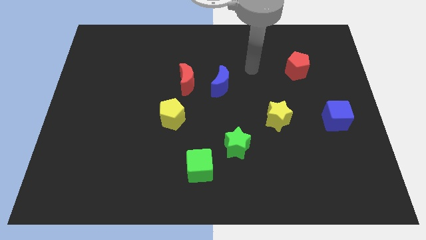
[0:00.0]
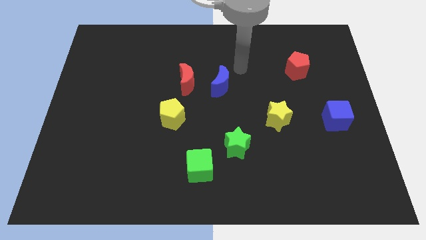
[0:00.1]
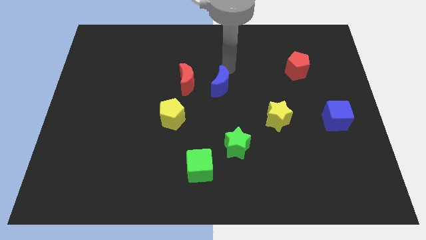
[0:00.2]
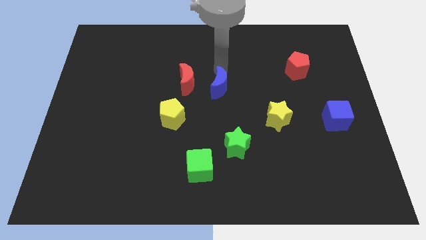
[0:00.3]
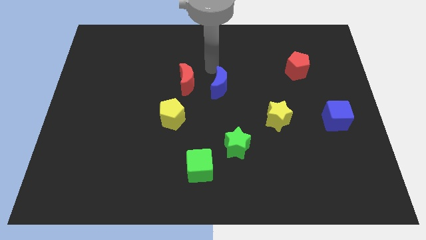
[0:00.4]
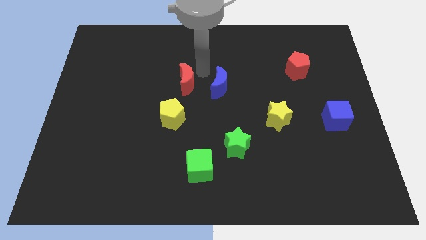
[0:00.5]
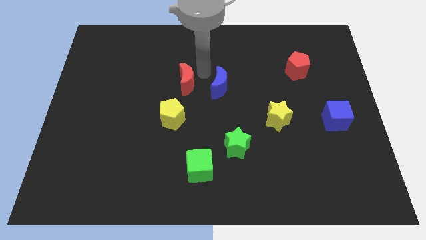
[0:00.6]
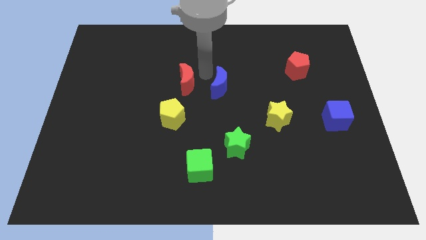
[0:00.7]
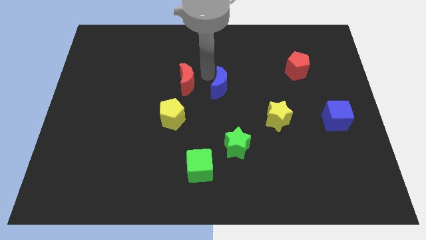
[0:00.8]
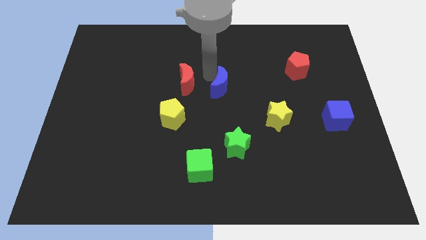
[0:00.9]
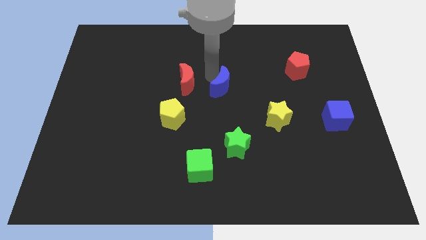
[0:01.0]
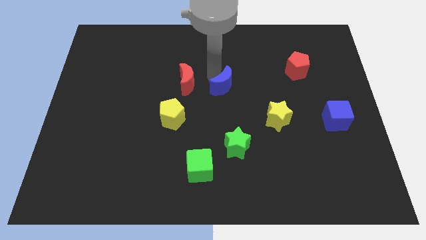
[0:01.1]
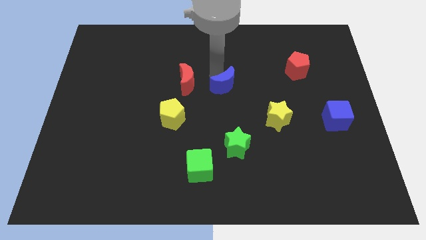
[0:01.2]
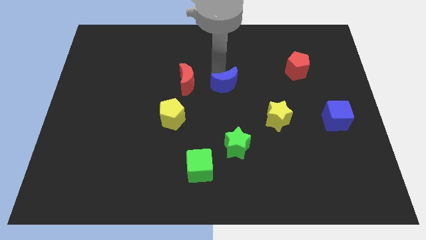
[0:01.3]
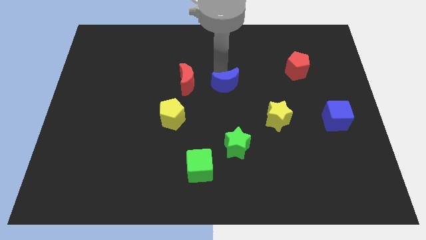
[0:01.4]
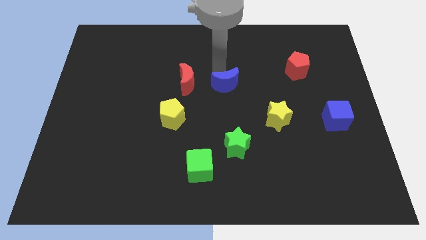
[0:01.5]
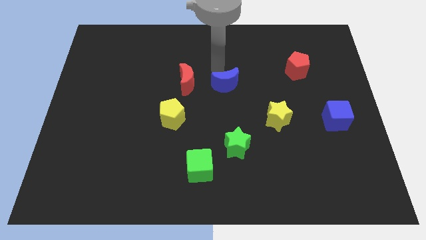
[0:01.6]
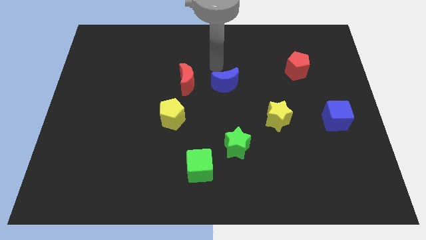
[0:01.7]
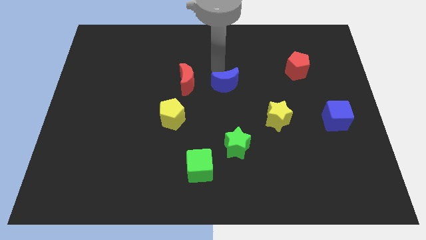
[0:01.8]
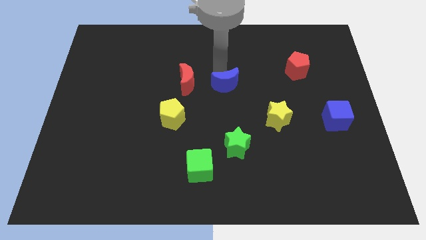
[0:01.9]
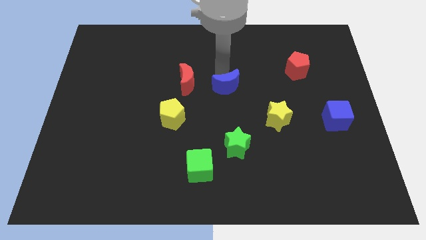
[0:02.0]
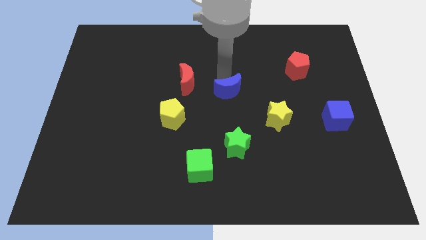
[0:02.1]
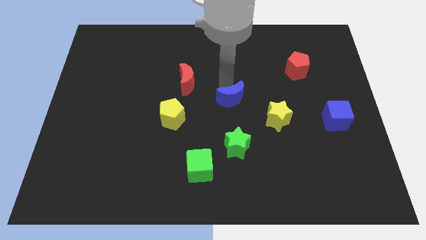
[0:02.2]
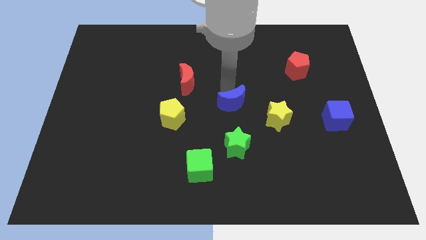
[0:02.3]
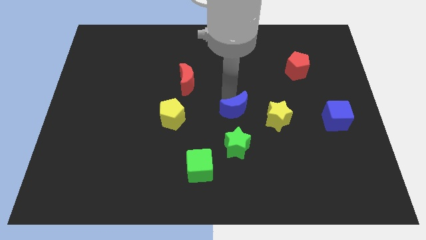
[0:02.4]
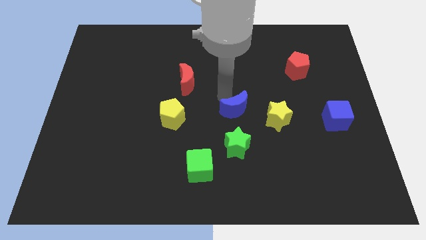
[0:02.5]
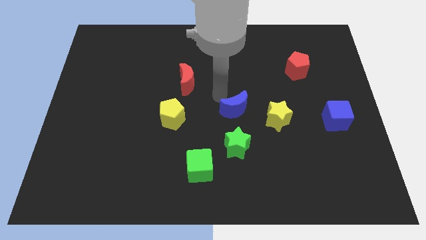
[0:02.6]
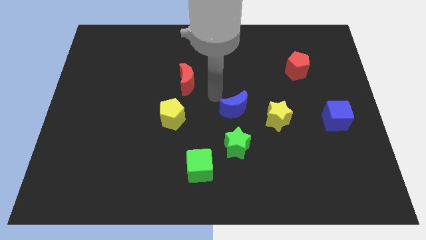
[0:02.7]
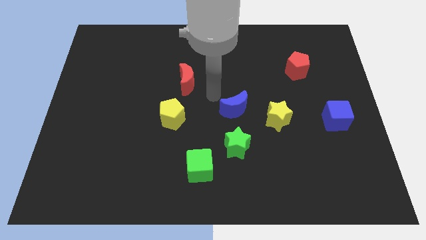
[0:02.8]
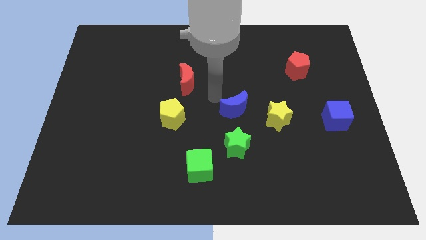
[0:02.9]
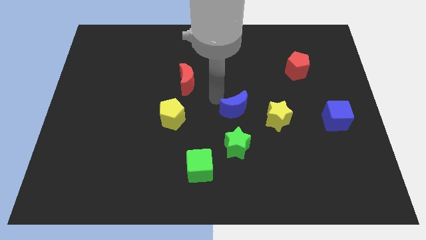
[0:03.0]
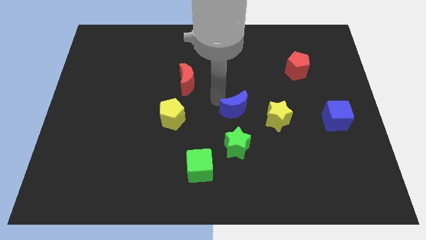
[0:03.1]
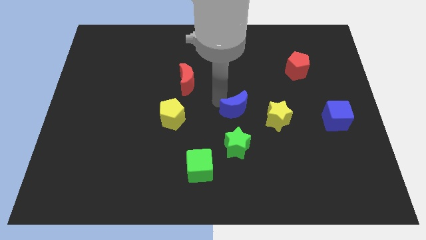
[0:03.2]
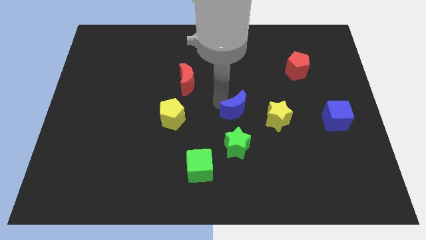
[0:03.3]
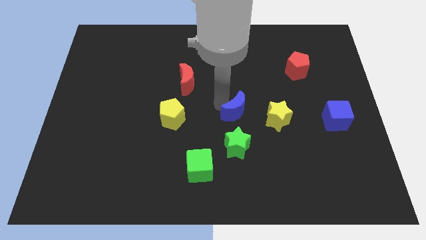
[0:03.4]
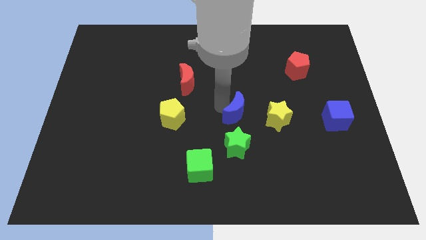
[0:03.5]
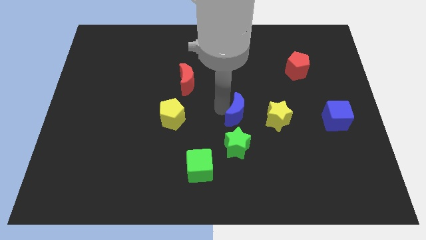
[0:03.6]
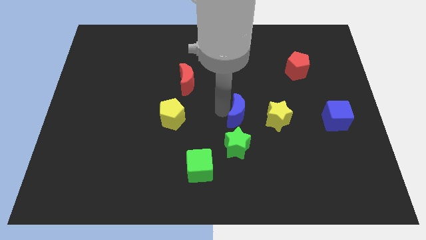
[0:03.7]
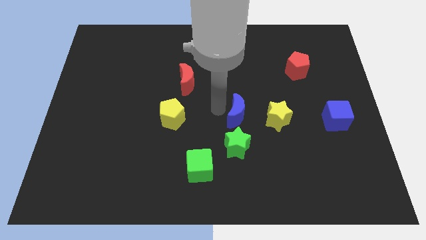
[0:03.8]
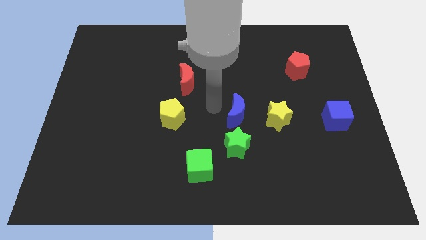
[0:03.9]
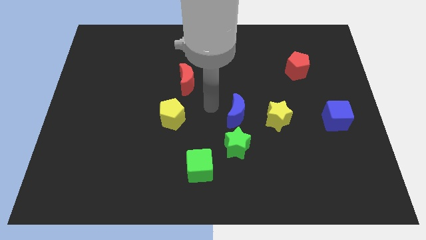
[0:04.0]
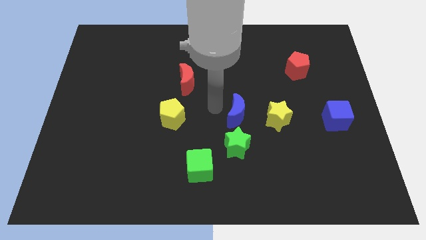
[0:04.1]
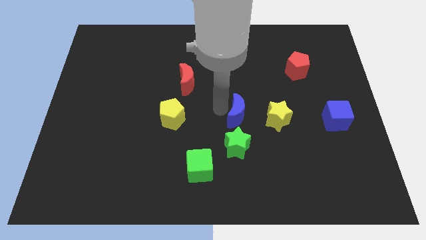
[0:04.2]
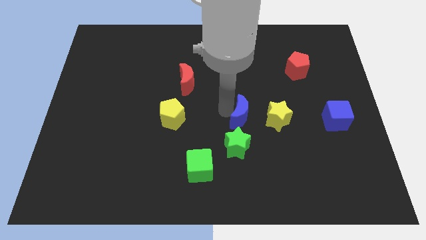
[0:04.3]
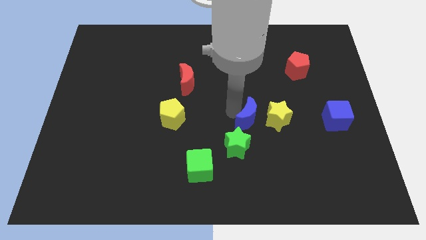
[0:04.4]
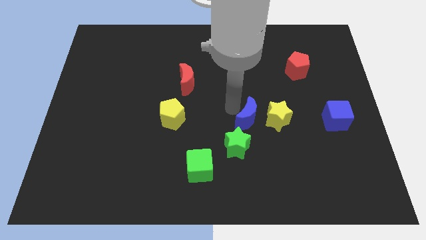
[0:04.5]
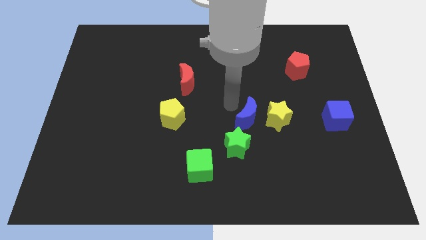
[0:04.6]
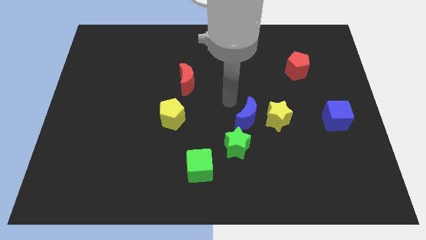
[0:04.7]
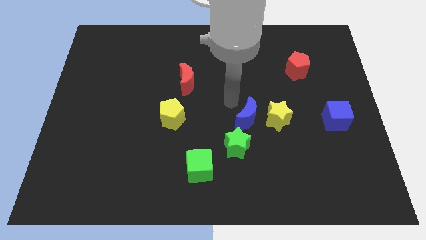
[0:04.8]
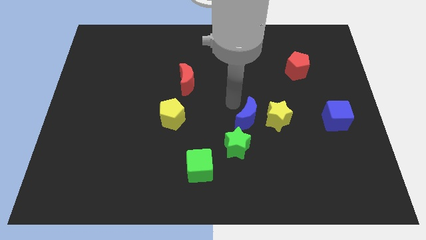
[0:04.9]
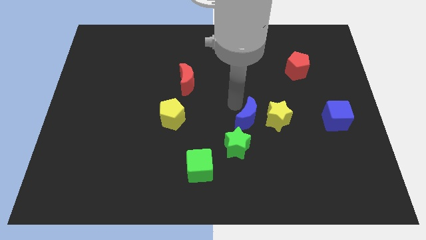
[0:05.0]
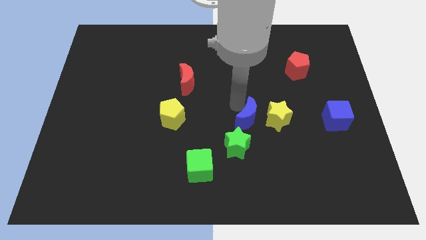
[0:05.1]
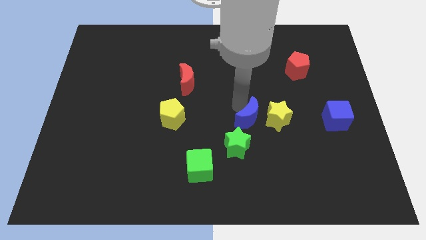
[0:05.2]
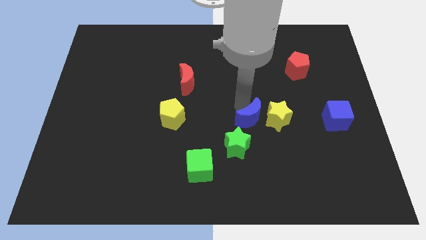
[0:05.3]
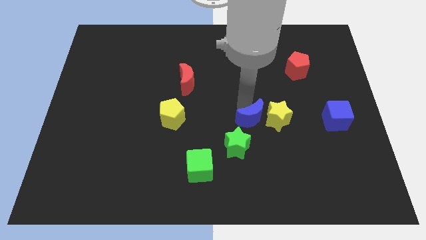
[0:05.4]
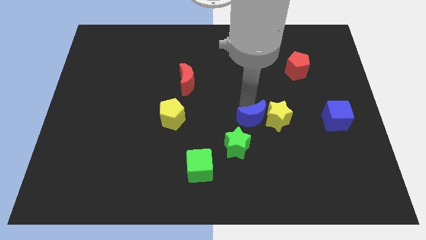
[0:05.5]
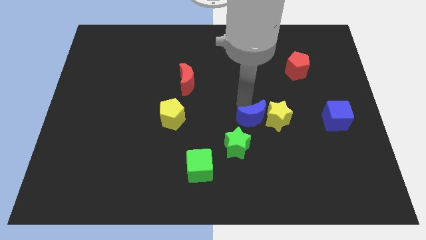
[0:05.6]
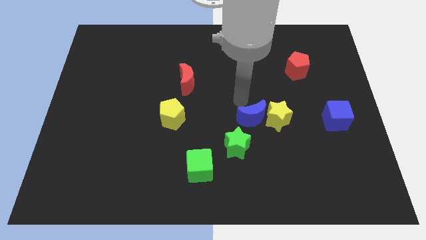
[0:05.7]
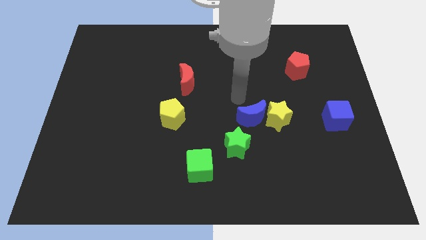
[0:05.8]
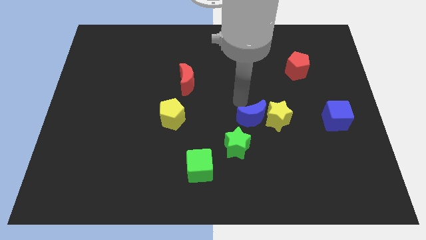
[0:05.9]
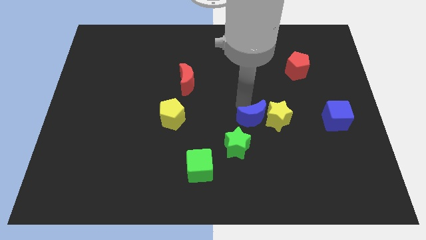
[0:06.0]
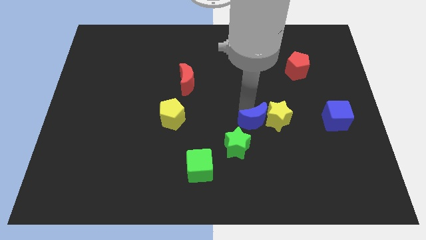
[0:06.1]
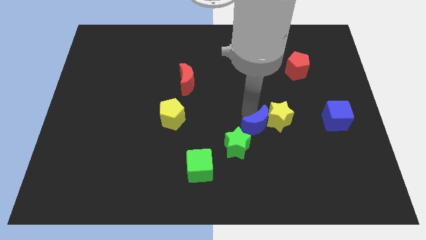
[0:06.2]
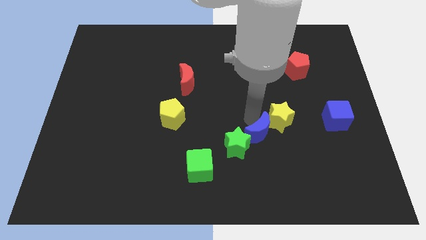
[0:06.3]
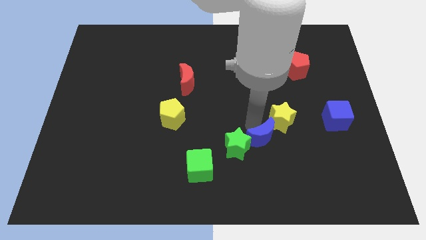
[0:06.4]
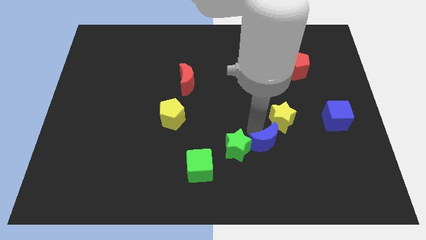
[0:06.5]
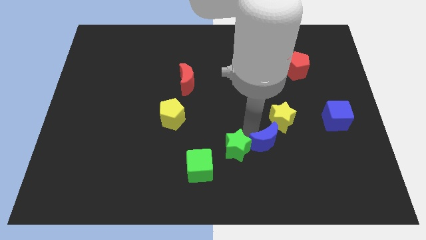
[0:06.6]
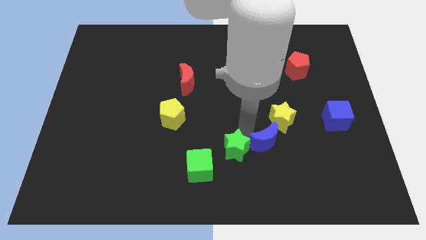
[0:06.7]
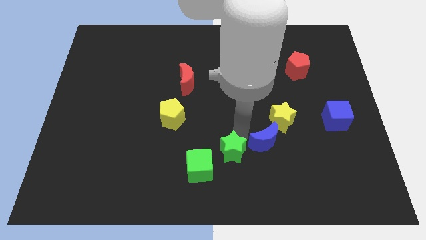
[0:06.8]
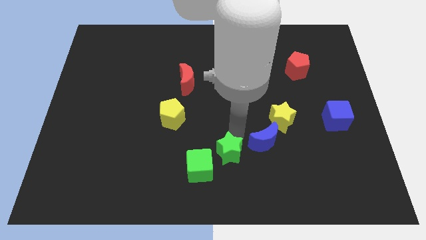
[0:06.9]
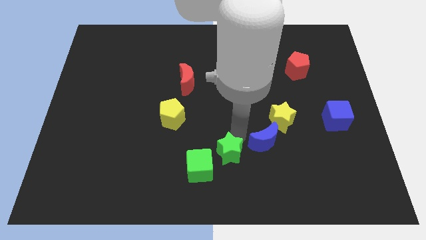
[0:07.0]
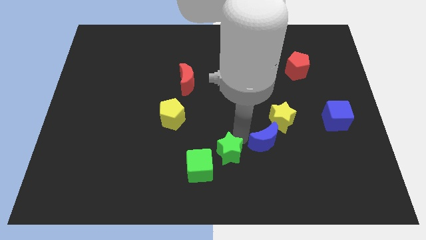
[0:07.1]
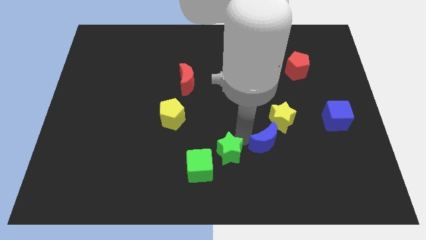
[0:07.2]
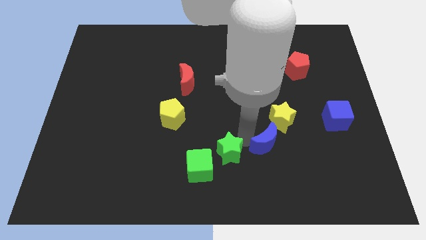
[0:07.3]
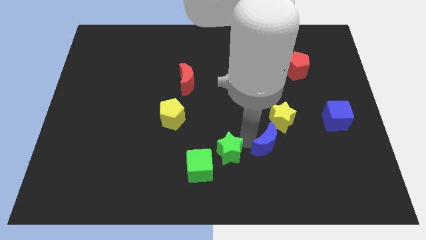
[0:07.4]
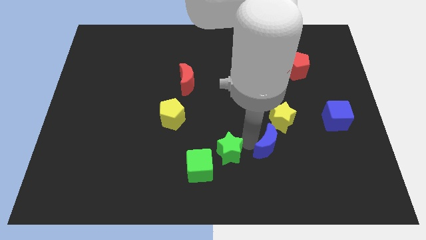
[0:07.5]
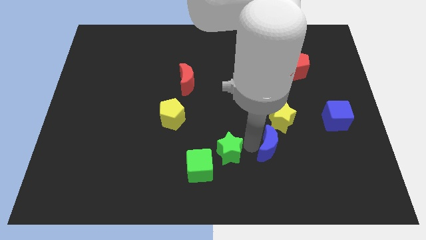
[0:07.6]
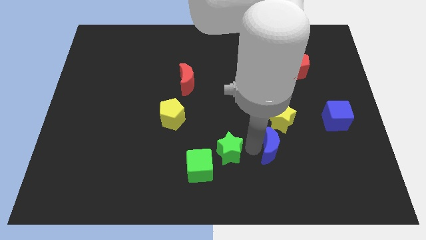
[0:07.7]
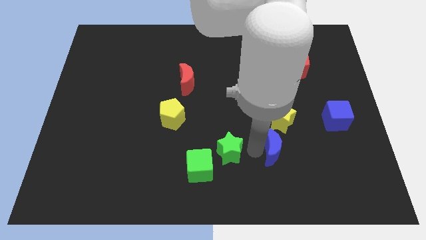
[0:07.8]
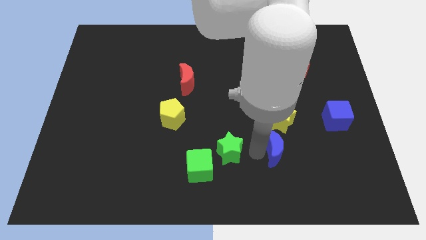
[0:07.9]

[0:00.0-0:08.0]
slide the blue moon down and then to the right

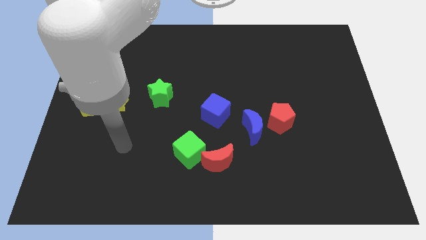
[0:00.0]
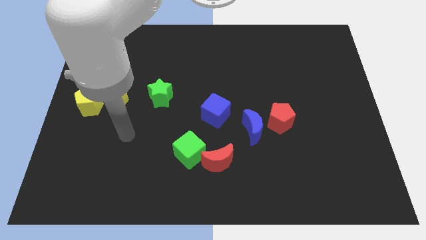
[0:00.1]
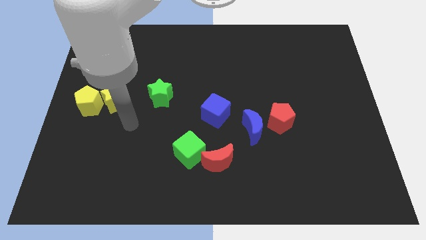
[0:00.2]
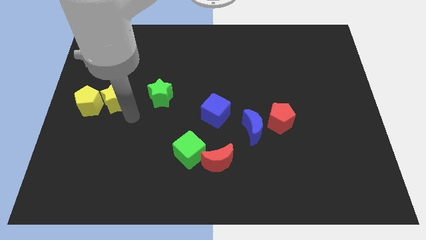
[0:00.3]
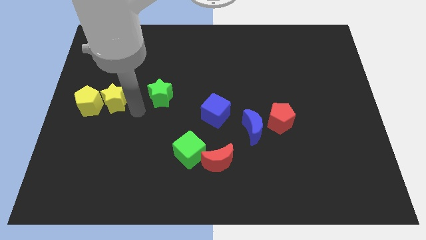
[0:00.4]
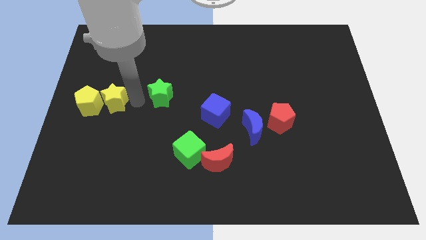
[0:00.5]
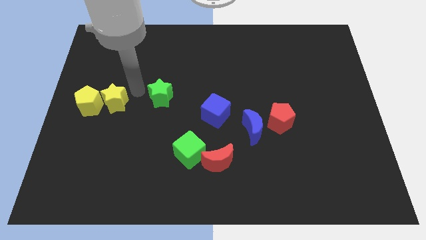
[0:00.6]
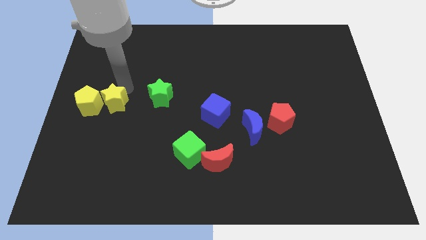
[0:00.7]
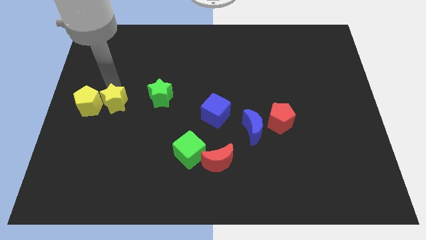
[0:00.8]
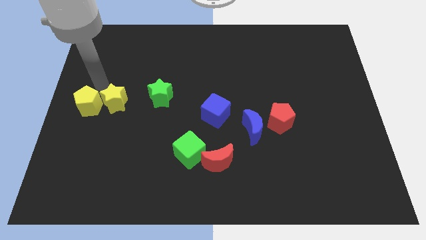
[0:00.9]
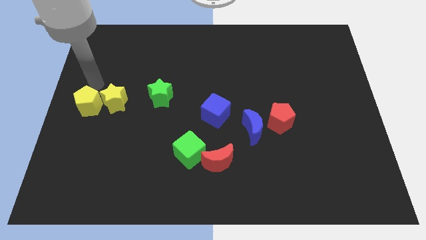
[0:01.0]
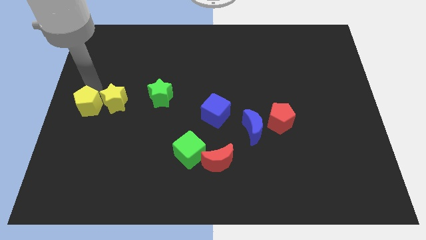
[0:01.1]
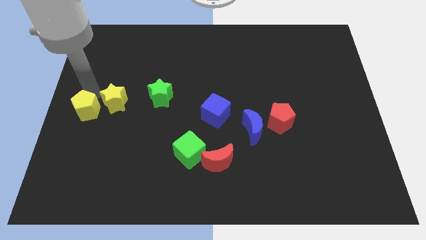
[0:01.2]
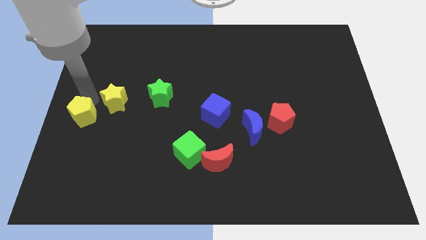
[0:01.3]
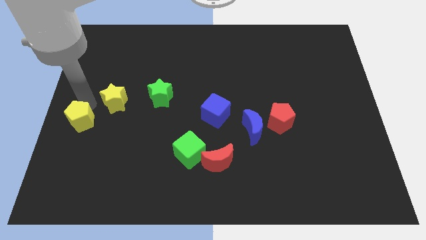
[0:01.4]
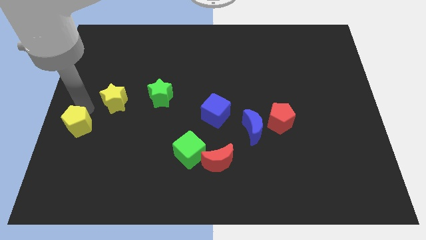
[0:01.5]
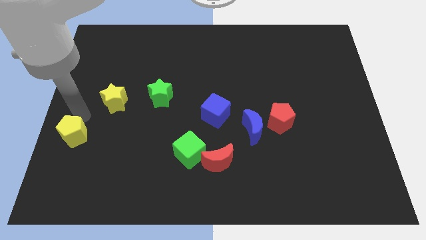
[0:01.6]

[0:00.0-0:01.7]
move the yellow pentagon somewhat downwards
